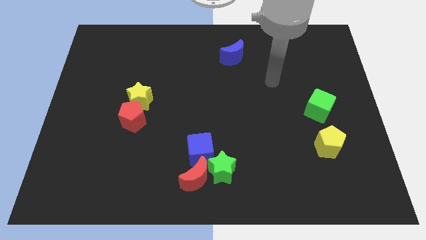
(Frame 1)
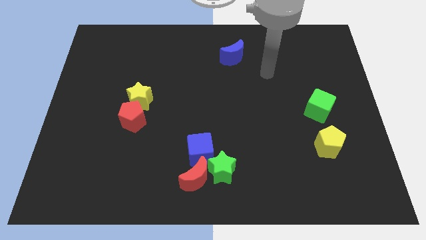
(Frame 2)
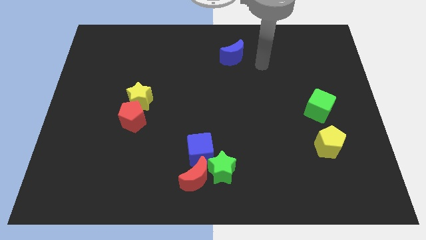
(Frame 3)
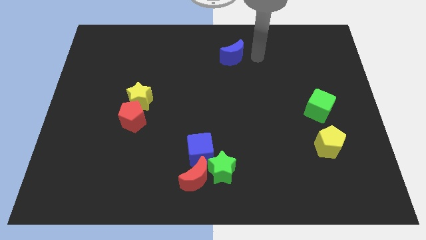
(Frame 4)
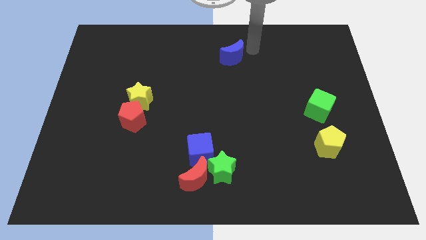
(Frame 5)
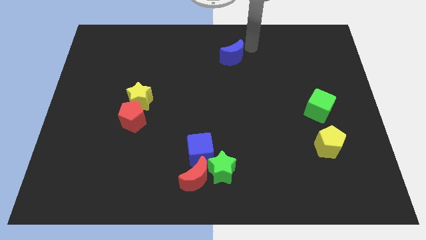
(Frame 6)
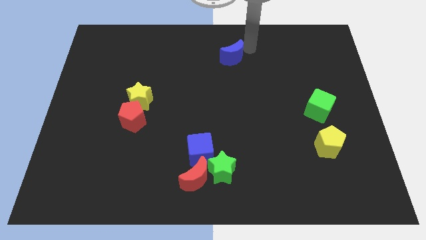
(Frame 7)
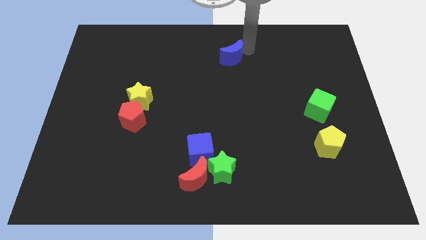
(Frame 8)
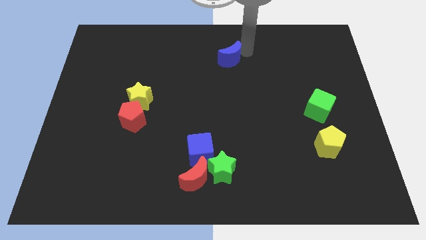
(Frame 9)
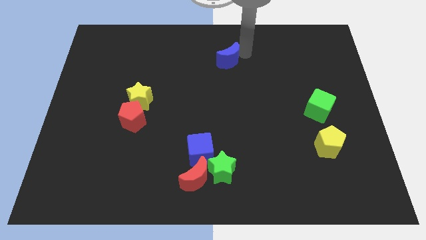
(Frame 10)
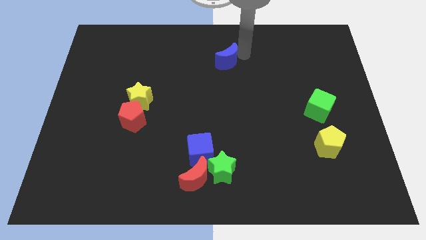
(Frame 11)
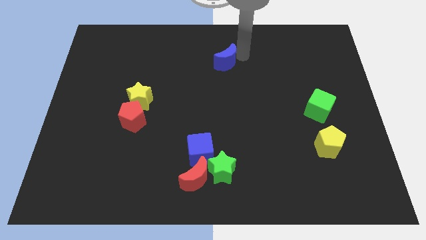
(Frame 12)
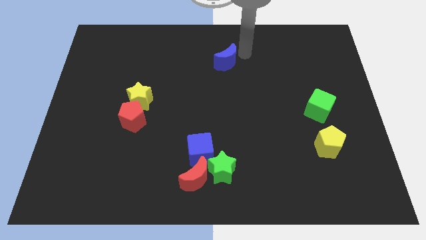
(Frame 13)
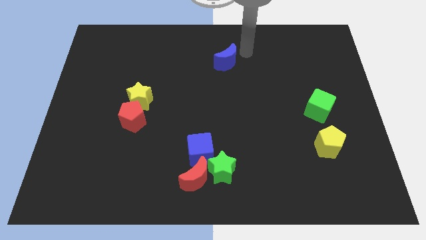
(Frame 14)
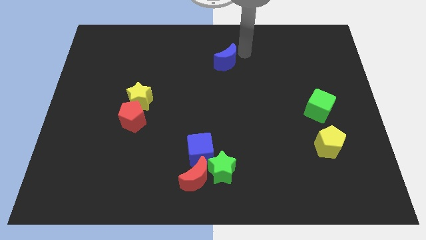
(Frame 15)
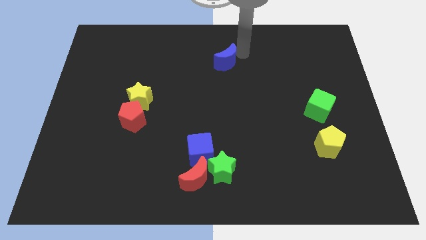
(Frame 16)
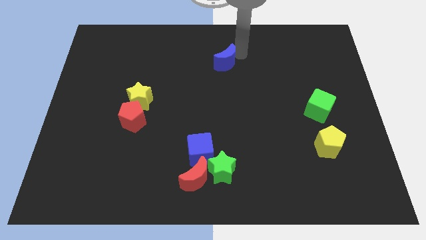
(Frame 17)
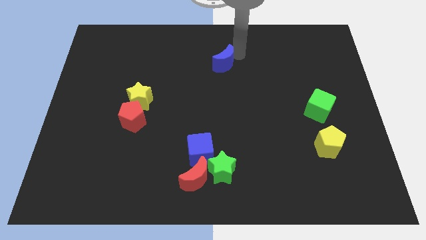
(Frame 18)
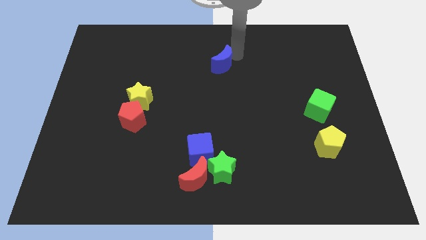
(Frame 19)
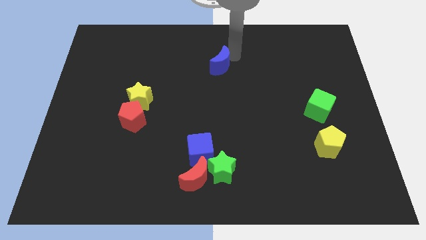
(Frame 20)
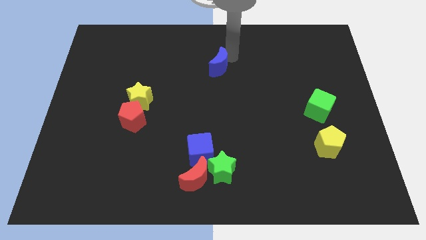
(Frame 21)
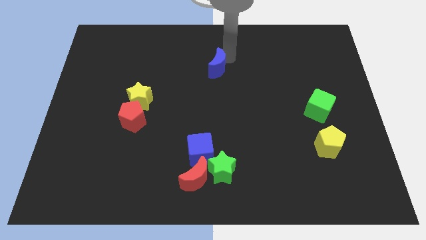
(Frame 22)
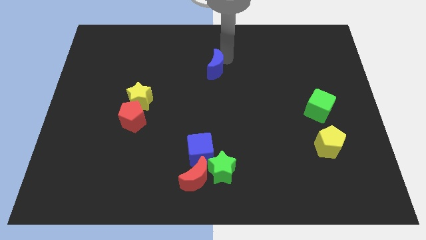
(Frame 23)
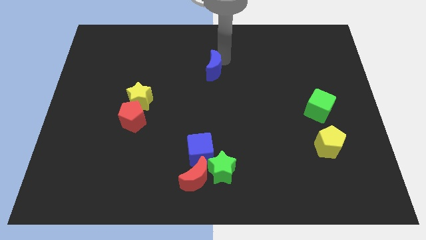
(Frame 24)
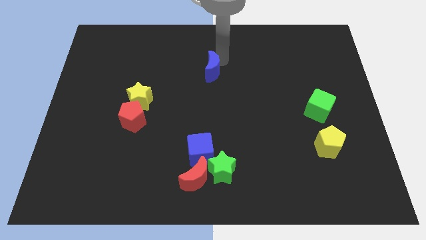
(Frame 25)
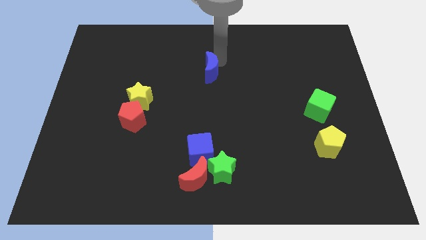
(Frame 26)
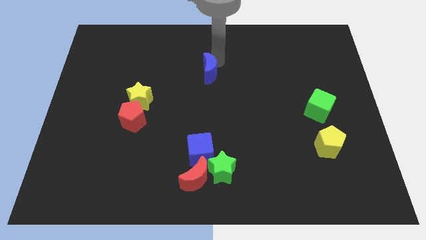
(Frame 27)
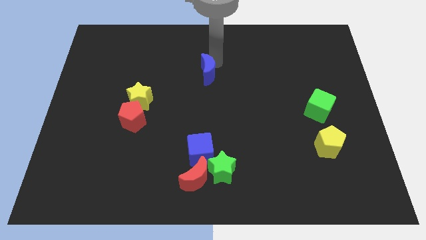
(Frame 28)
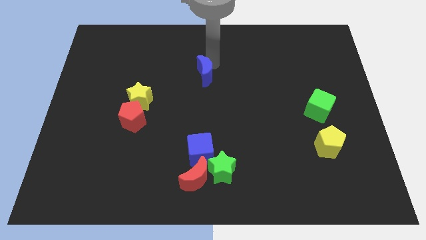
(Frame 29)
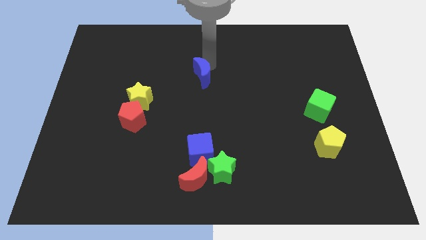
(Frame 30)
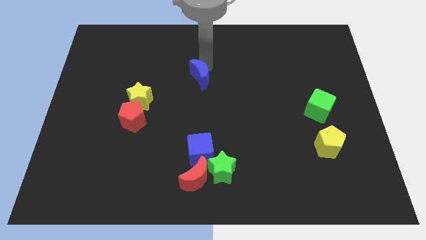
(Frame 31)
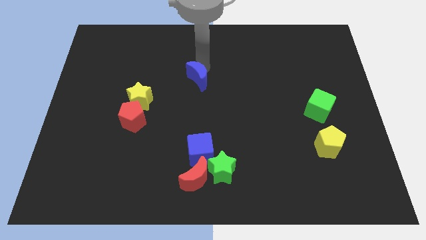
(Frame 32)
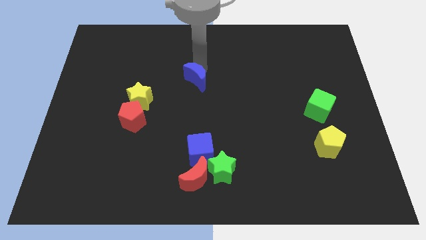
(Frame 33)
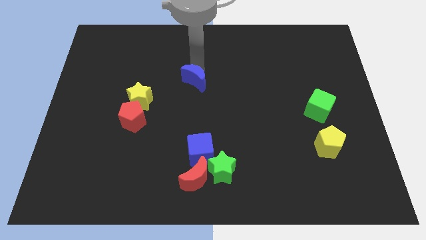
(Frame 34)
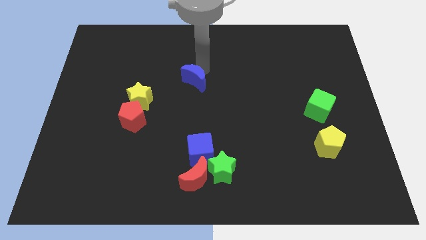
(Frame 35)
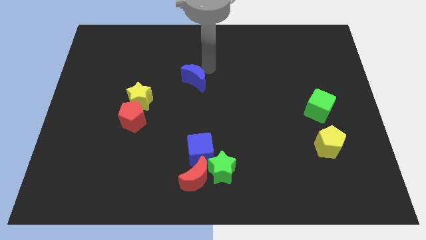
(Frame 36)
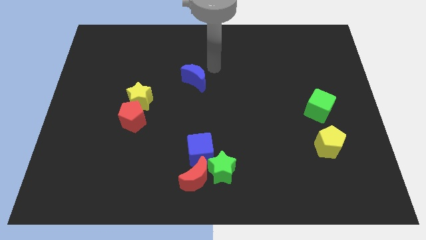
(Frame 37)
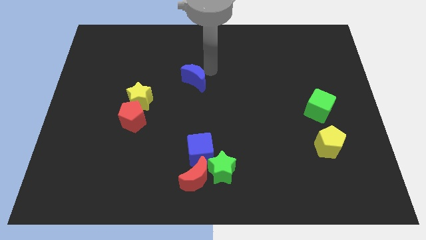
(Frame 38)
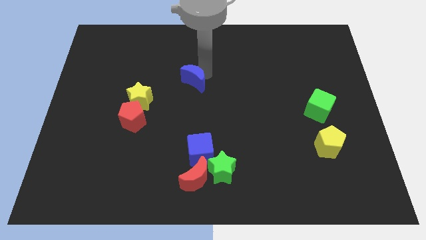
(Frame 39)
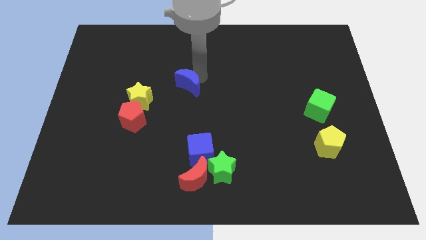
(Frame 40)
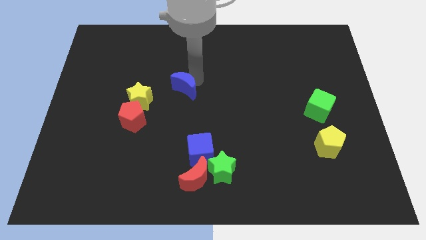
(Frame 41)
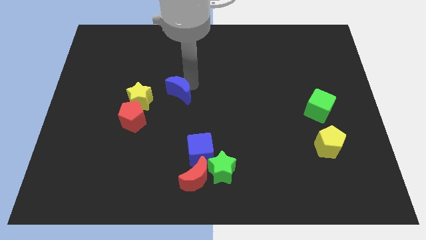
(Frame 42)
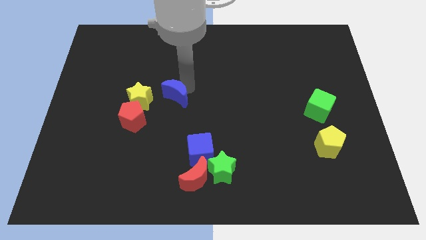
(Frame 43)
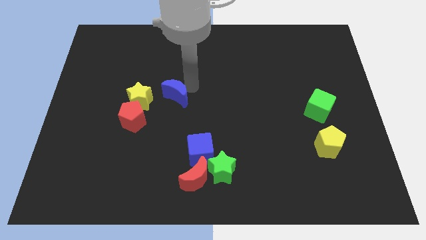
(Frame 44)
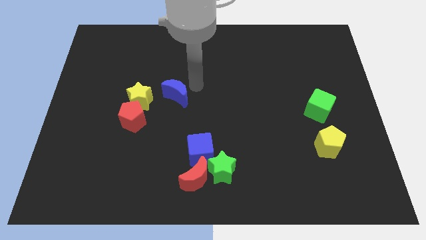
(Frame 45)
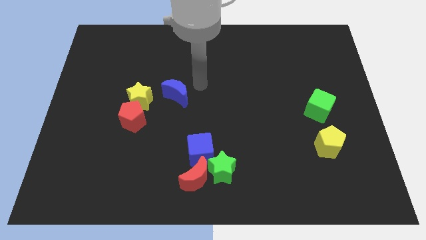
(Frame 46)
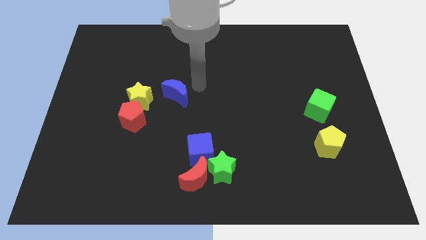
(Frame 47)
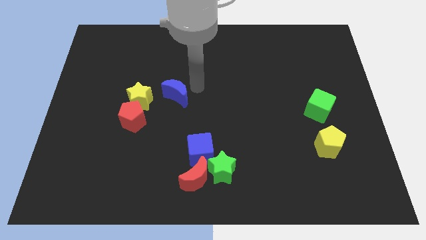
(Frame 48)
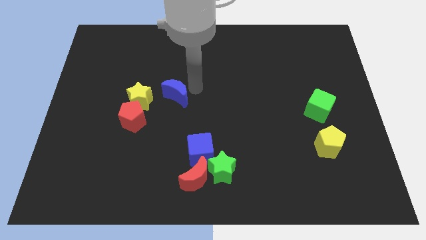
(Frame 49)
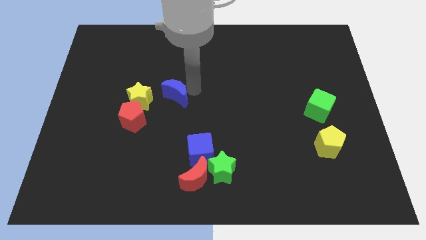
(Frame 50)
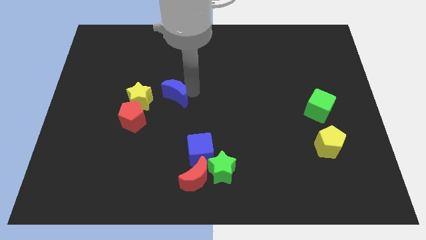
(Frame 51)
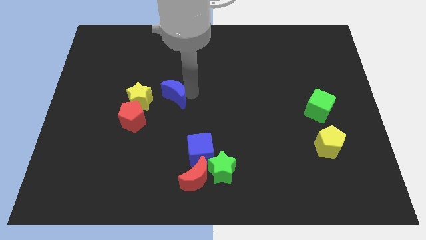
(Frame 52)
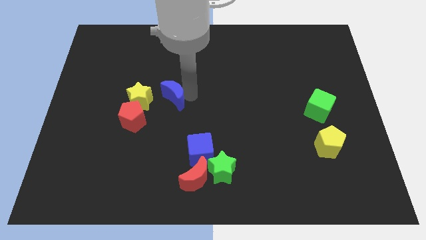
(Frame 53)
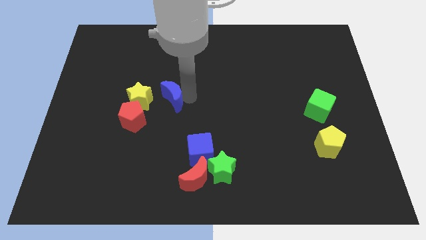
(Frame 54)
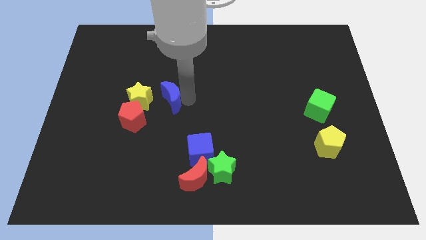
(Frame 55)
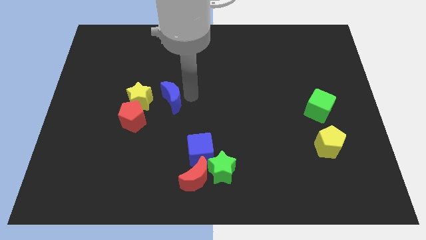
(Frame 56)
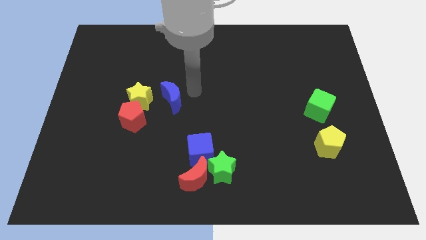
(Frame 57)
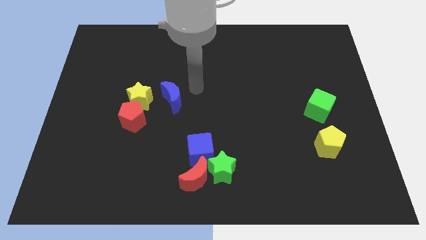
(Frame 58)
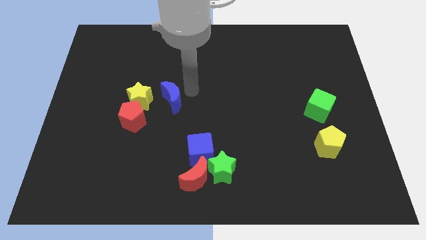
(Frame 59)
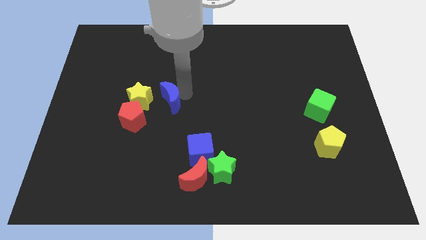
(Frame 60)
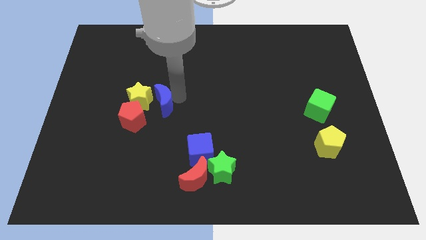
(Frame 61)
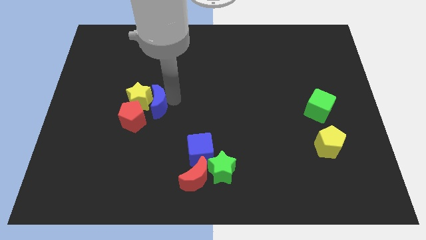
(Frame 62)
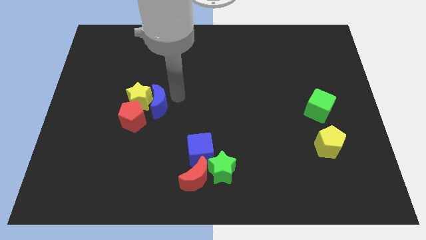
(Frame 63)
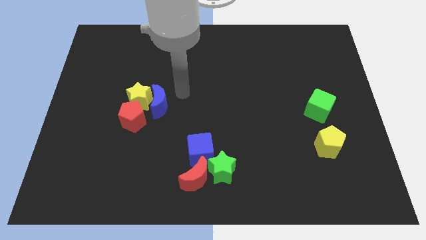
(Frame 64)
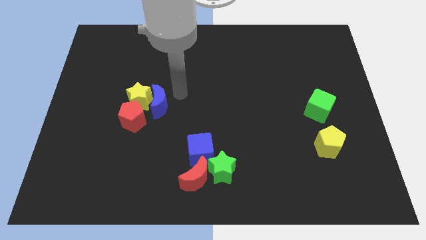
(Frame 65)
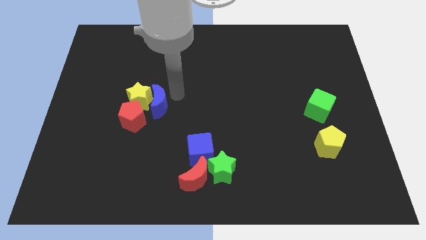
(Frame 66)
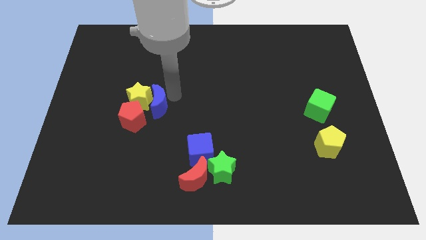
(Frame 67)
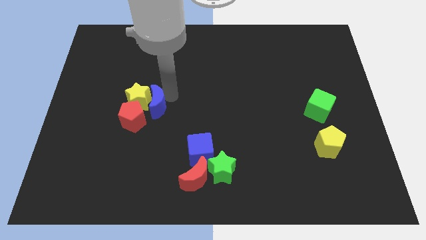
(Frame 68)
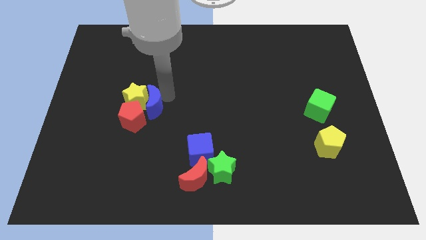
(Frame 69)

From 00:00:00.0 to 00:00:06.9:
put the blue moon to the red pentagon
